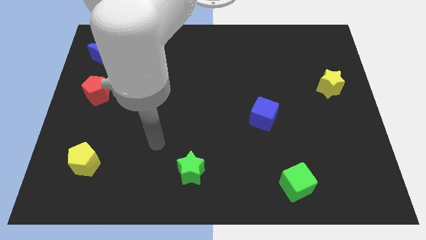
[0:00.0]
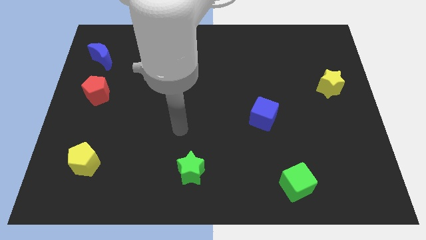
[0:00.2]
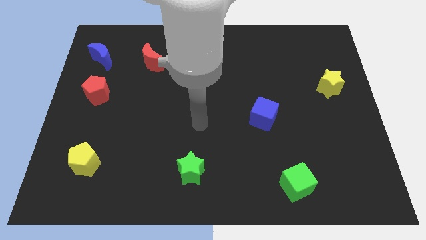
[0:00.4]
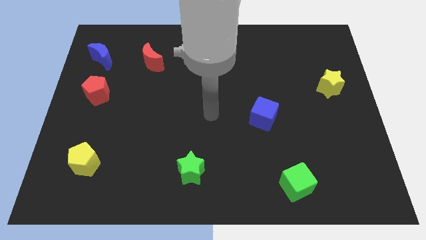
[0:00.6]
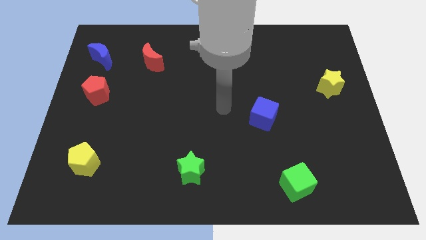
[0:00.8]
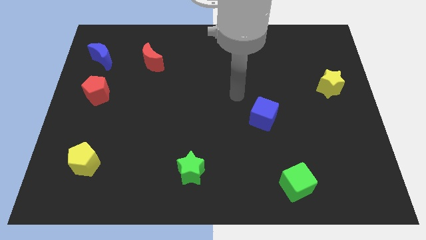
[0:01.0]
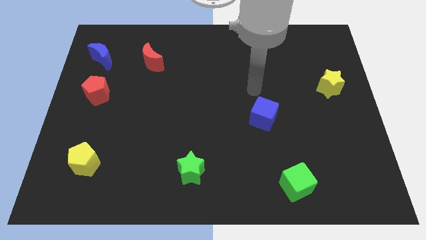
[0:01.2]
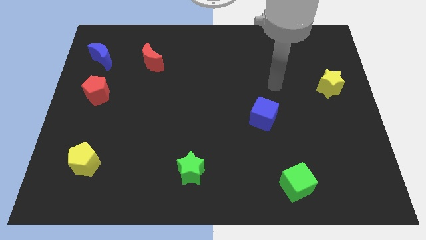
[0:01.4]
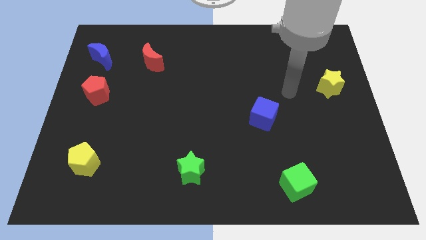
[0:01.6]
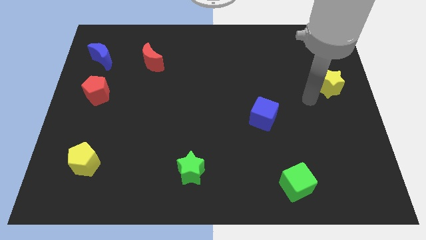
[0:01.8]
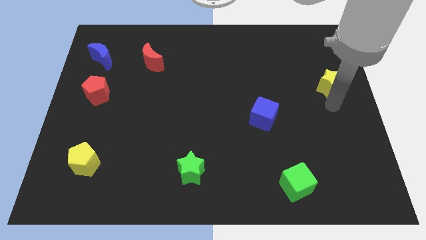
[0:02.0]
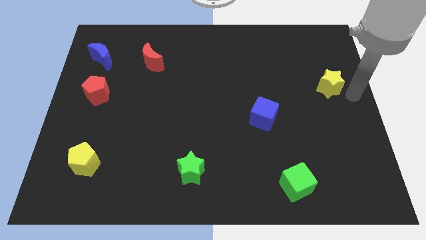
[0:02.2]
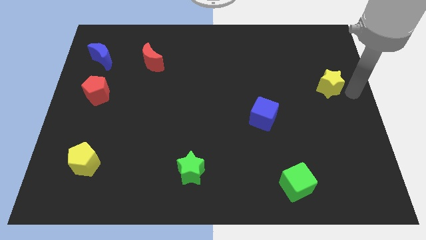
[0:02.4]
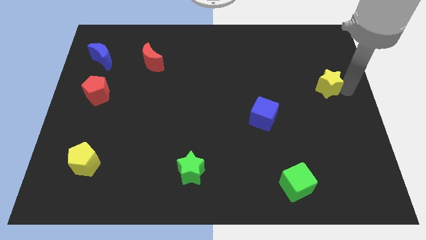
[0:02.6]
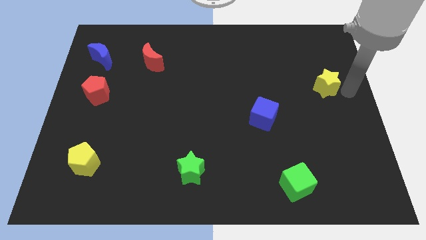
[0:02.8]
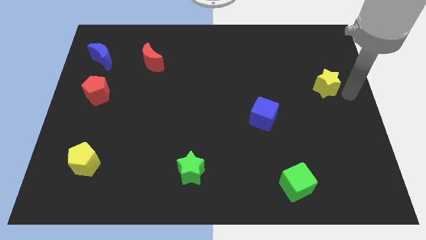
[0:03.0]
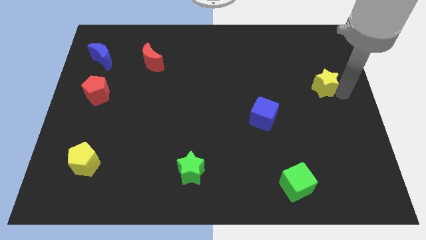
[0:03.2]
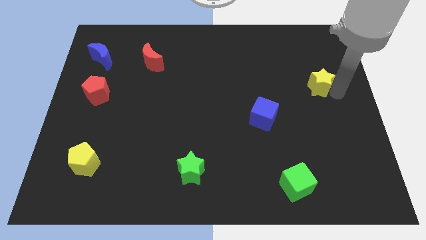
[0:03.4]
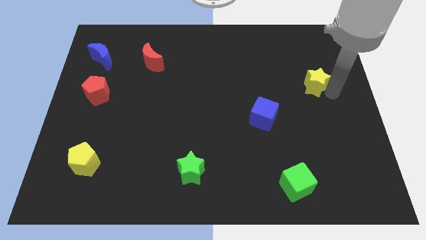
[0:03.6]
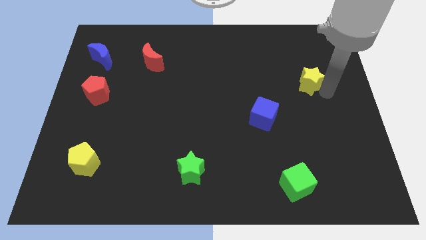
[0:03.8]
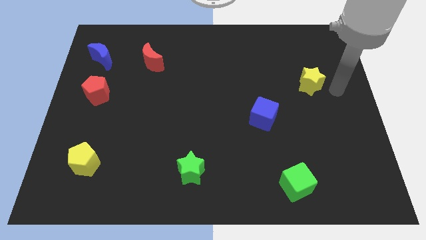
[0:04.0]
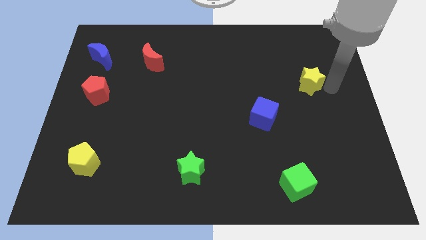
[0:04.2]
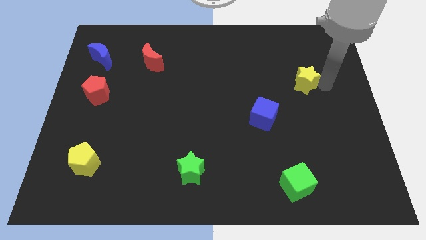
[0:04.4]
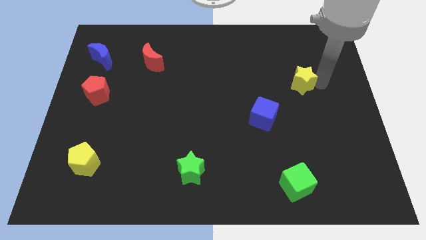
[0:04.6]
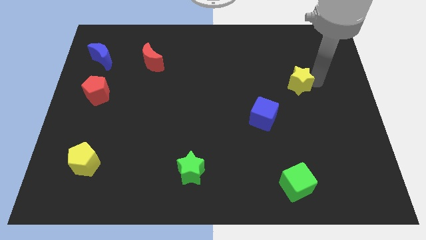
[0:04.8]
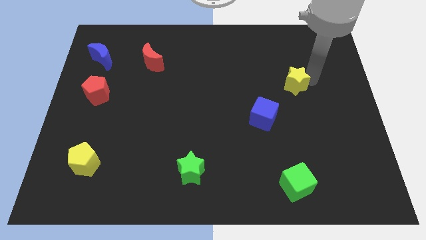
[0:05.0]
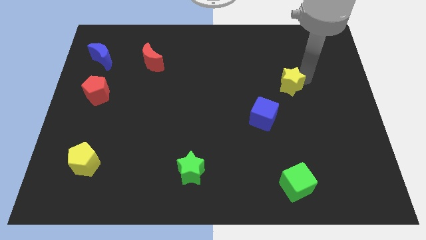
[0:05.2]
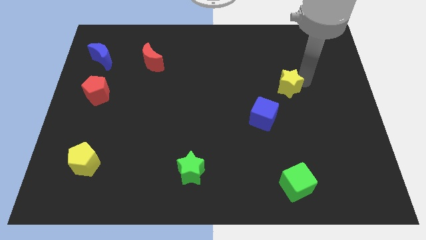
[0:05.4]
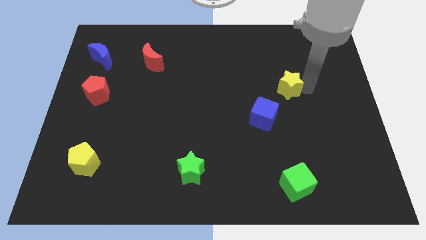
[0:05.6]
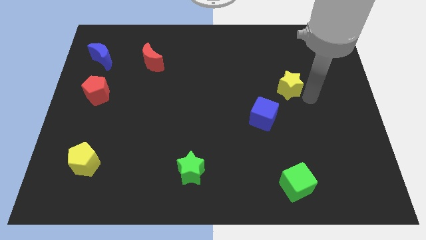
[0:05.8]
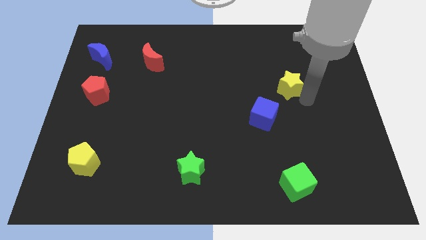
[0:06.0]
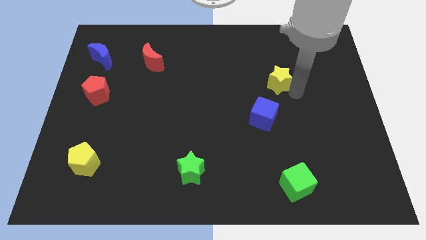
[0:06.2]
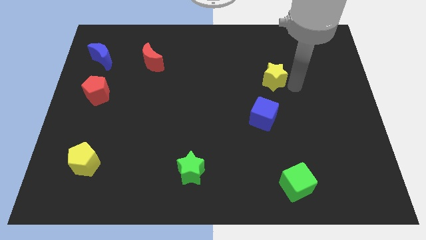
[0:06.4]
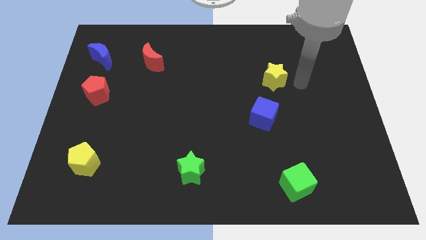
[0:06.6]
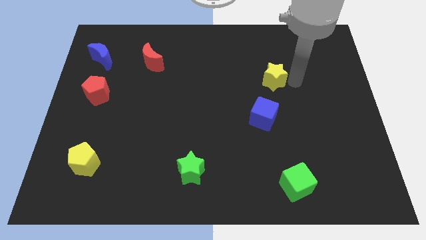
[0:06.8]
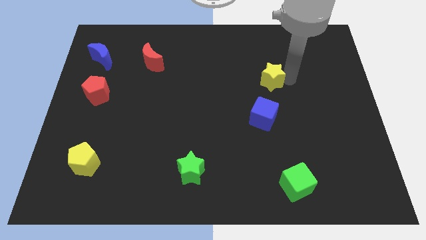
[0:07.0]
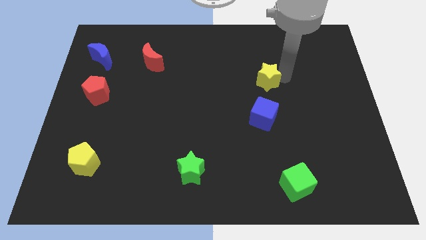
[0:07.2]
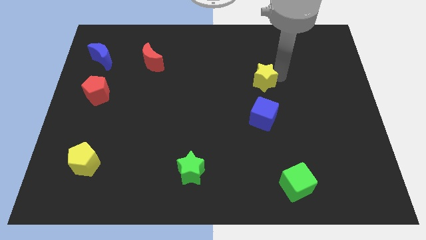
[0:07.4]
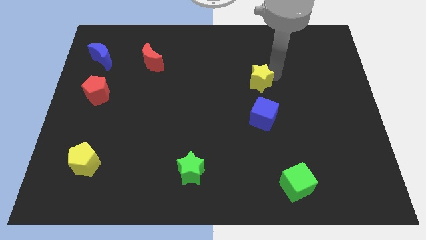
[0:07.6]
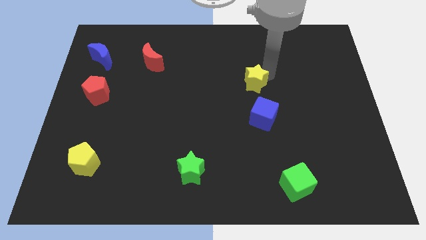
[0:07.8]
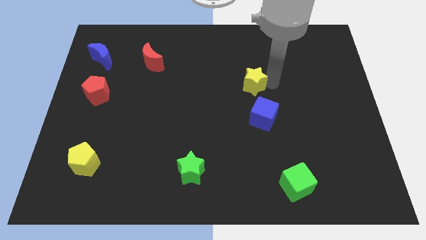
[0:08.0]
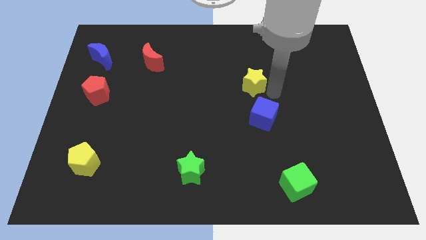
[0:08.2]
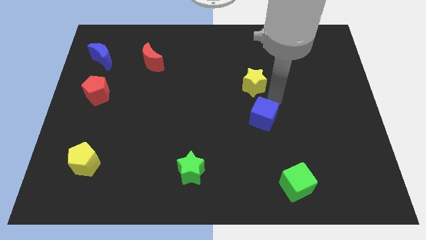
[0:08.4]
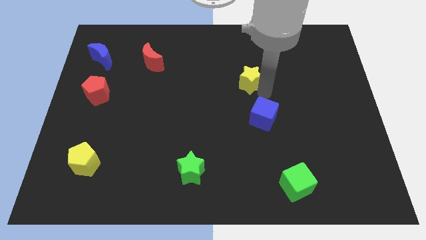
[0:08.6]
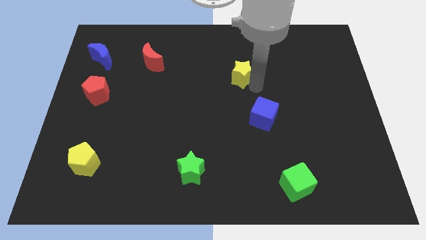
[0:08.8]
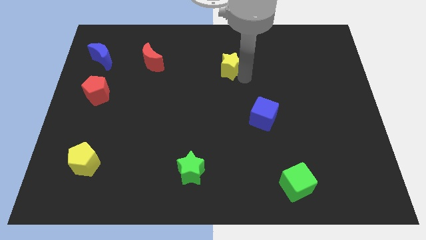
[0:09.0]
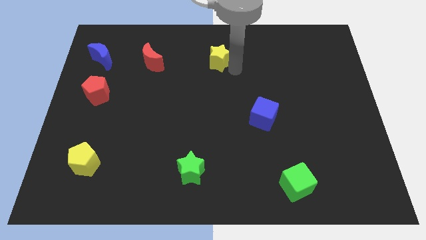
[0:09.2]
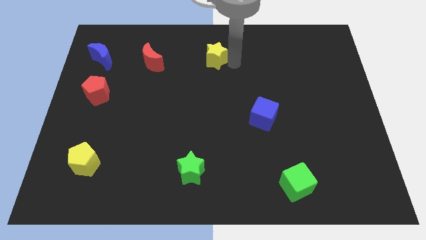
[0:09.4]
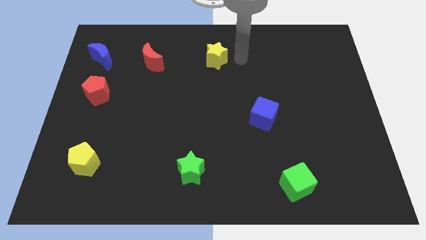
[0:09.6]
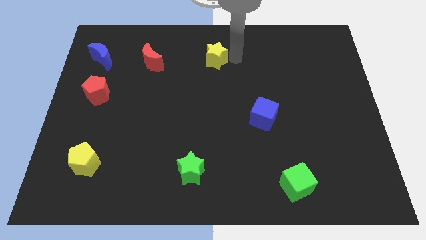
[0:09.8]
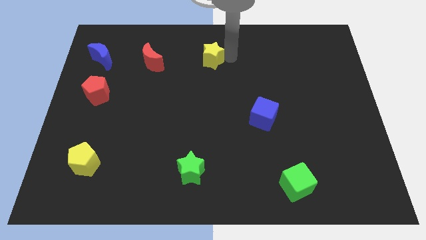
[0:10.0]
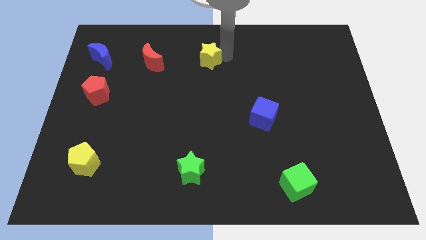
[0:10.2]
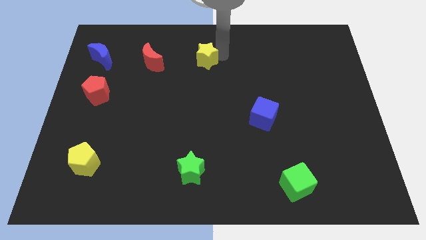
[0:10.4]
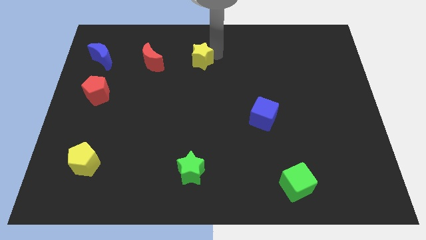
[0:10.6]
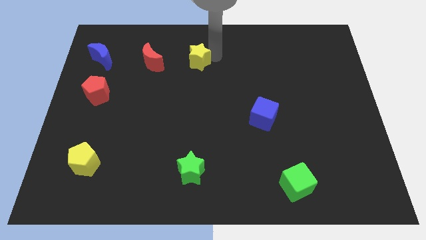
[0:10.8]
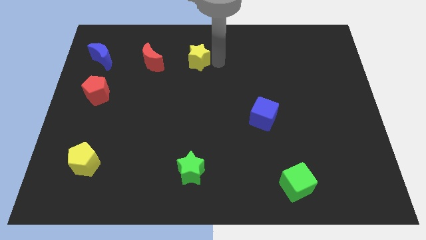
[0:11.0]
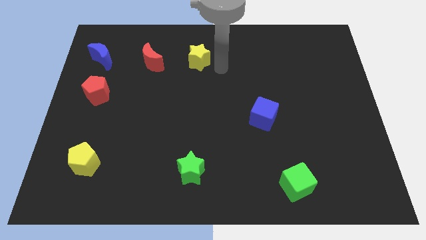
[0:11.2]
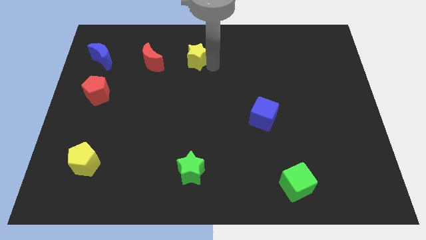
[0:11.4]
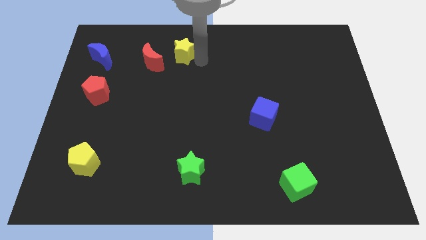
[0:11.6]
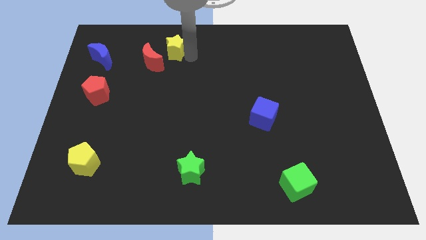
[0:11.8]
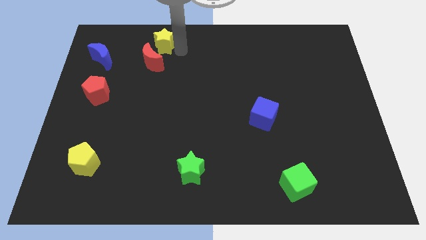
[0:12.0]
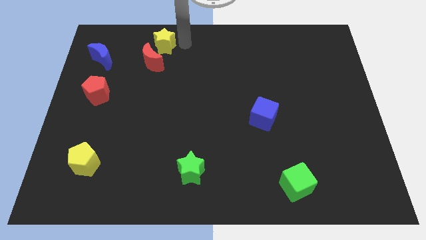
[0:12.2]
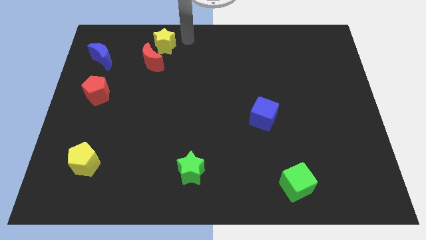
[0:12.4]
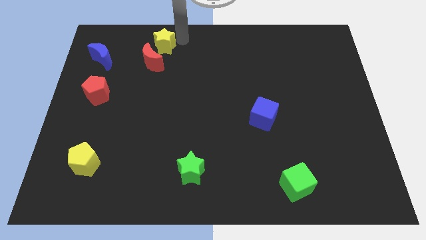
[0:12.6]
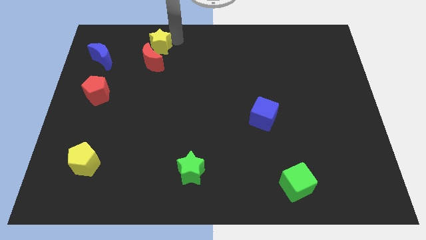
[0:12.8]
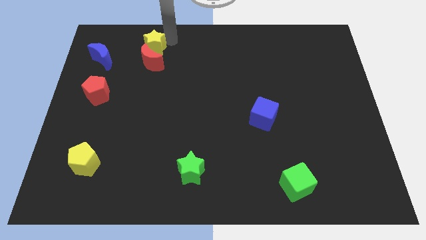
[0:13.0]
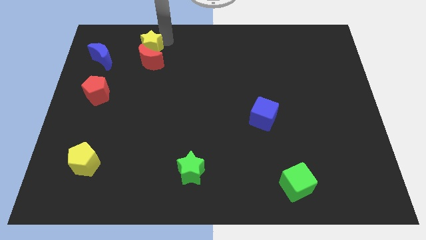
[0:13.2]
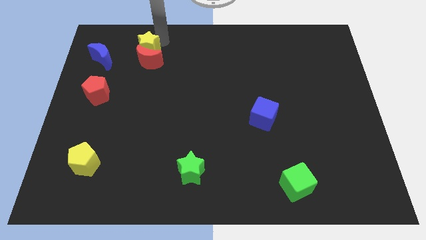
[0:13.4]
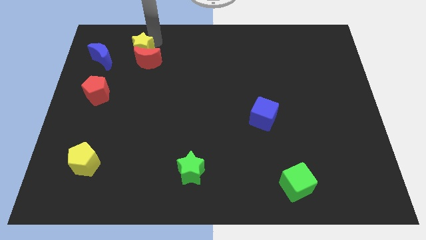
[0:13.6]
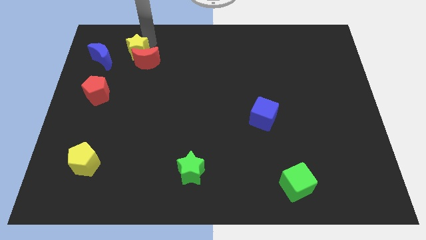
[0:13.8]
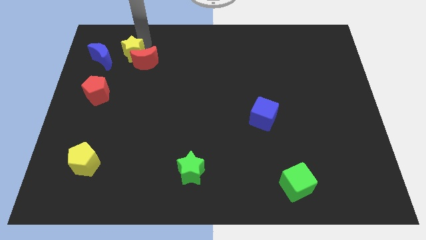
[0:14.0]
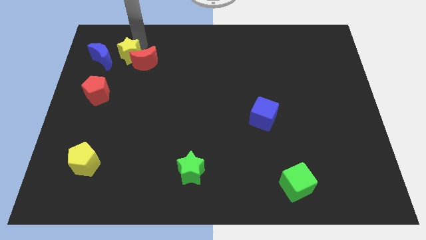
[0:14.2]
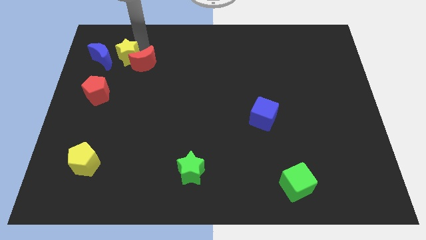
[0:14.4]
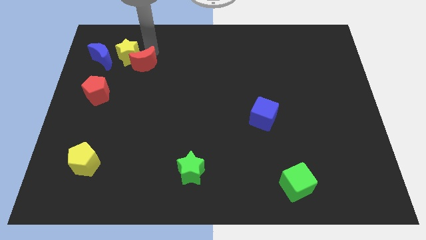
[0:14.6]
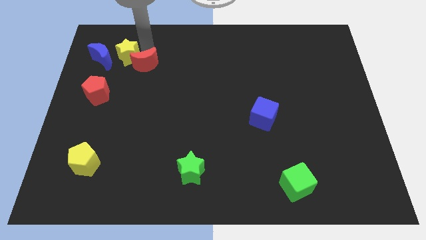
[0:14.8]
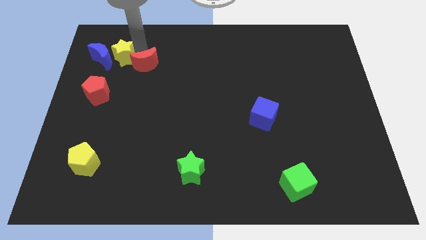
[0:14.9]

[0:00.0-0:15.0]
put the yellow star next to the blue moon

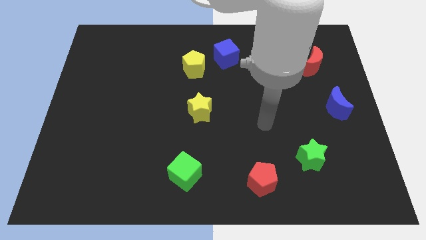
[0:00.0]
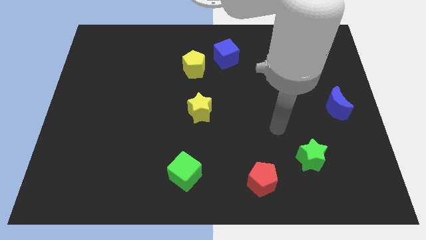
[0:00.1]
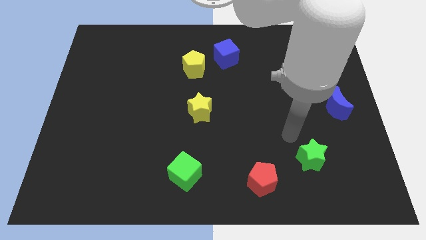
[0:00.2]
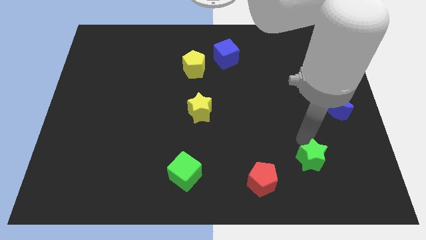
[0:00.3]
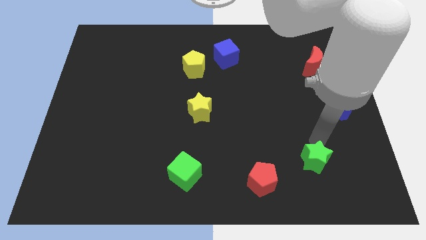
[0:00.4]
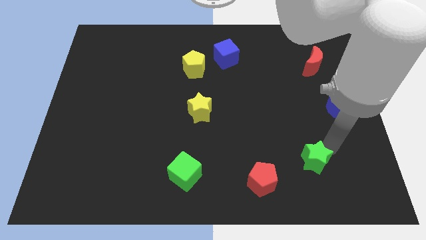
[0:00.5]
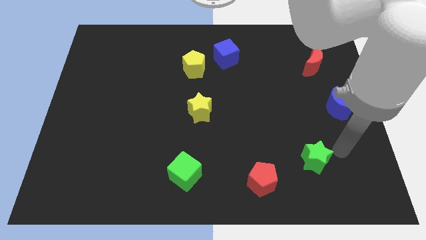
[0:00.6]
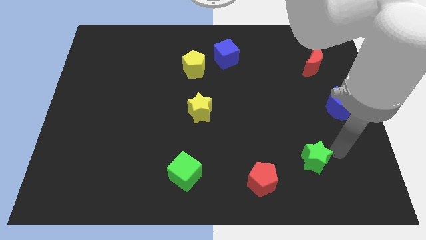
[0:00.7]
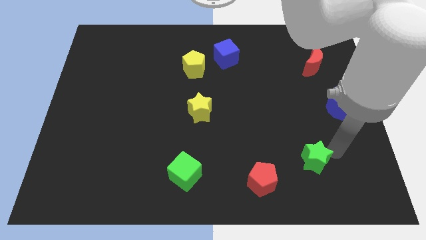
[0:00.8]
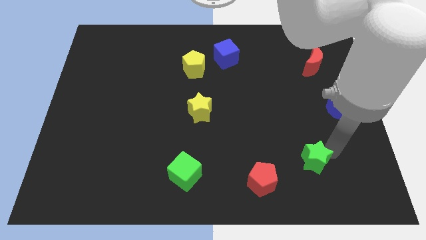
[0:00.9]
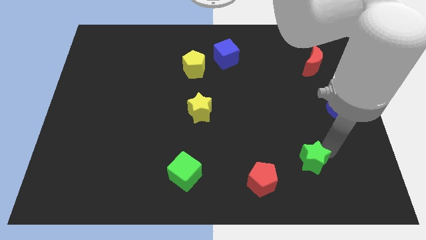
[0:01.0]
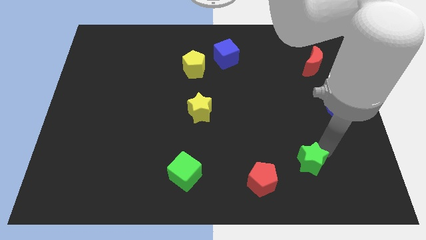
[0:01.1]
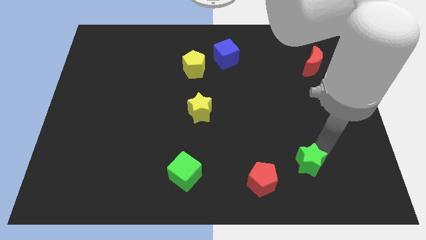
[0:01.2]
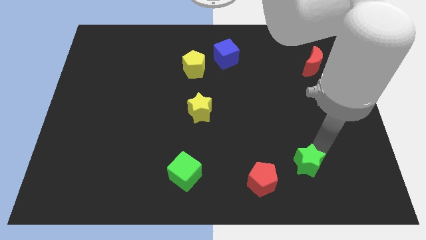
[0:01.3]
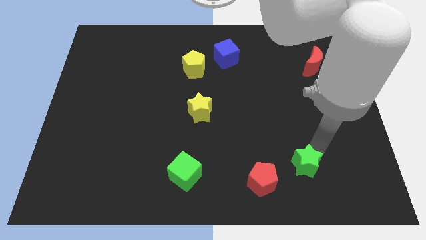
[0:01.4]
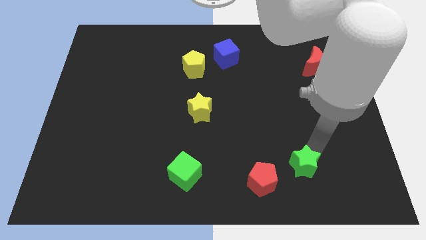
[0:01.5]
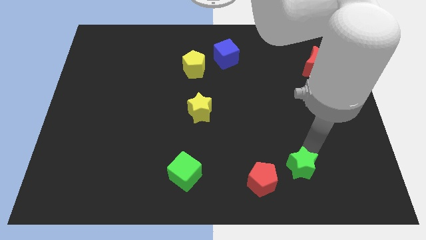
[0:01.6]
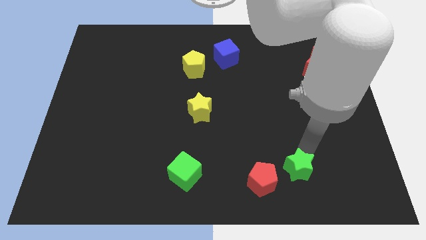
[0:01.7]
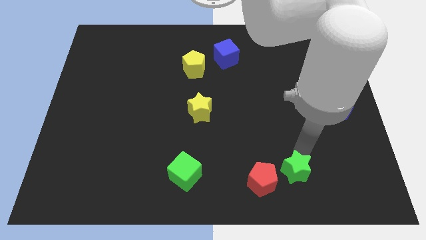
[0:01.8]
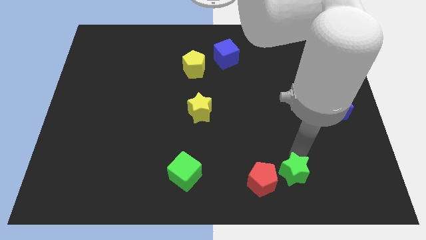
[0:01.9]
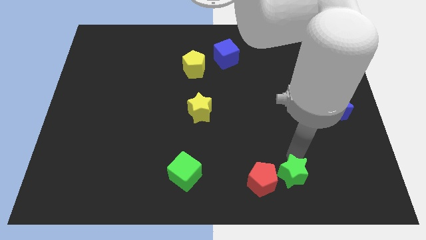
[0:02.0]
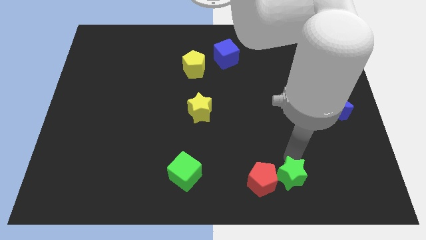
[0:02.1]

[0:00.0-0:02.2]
push the green star to the red pentagon
